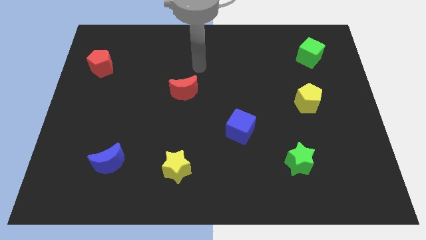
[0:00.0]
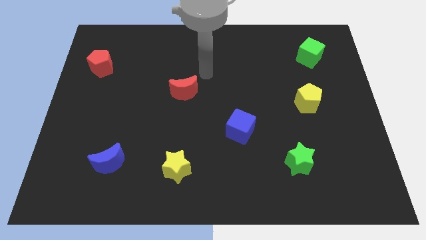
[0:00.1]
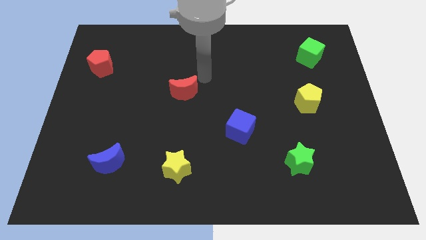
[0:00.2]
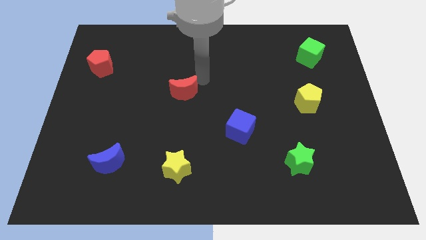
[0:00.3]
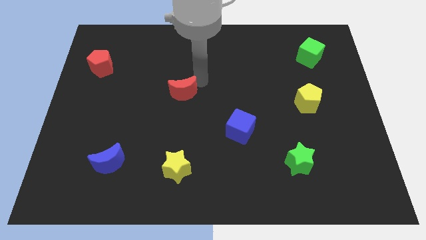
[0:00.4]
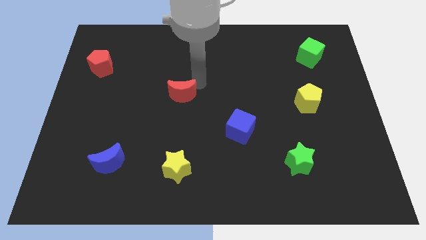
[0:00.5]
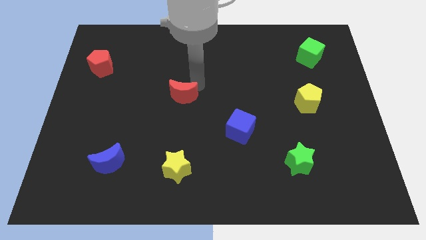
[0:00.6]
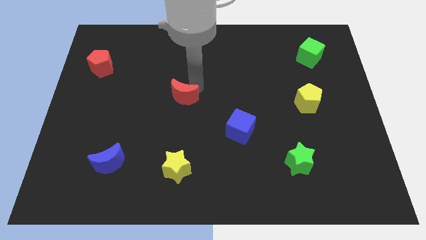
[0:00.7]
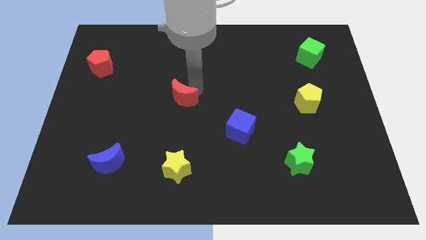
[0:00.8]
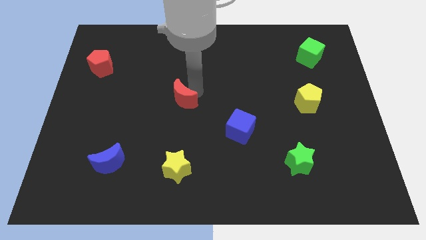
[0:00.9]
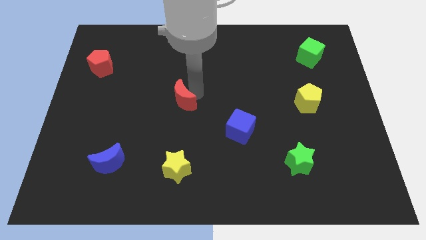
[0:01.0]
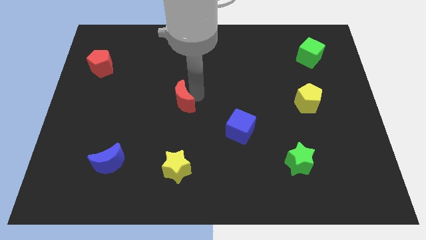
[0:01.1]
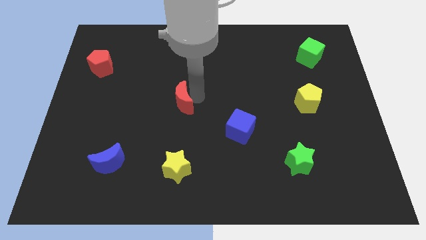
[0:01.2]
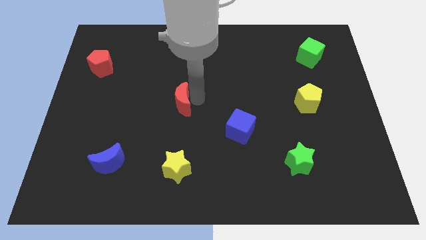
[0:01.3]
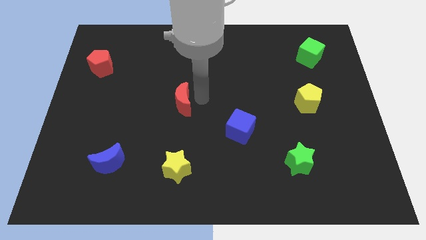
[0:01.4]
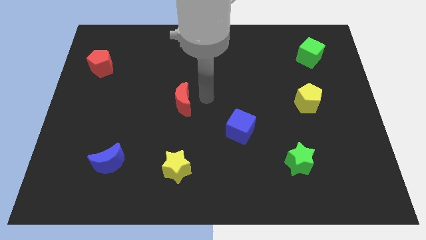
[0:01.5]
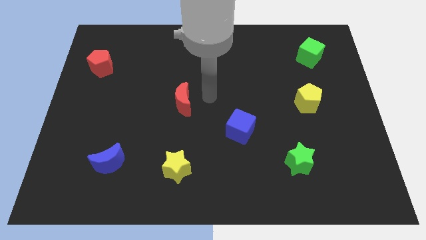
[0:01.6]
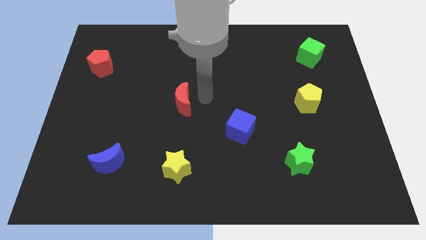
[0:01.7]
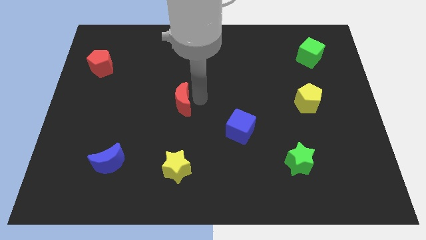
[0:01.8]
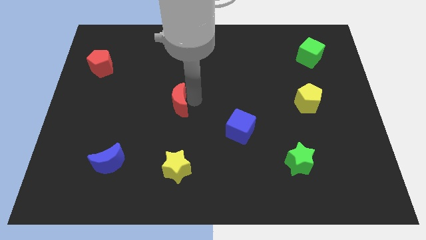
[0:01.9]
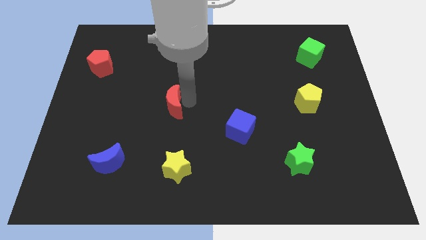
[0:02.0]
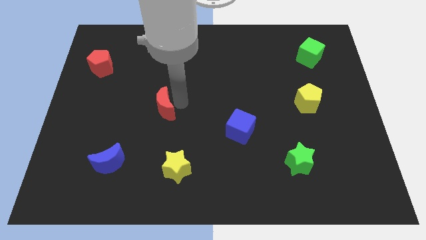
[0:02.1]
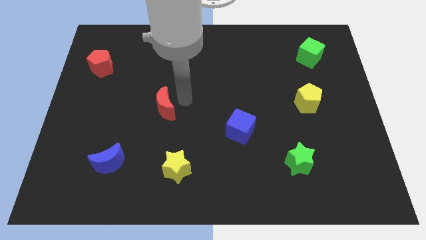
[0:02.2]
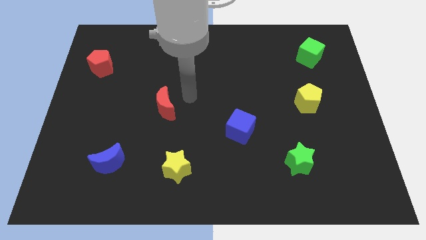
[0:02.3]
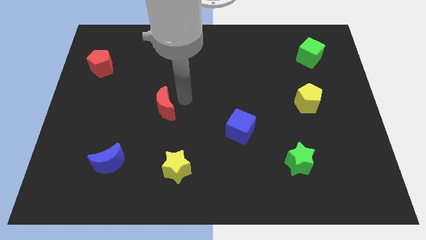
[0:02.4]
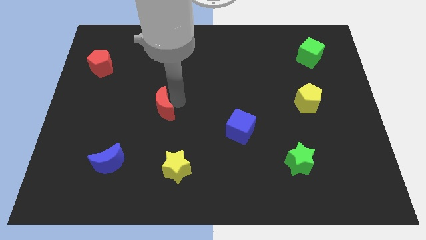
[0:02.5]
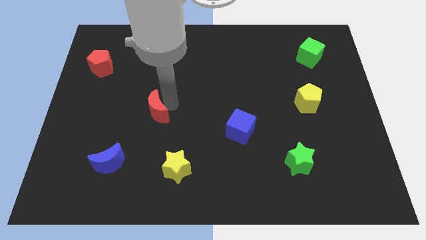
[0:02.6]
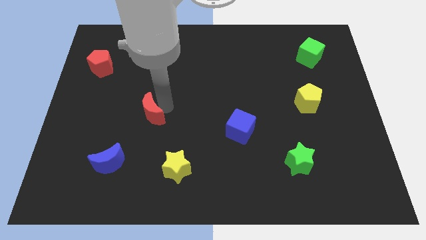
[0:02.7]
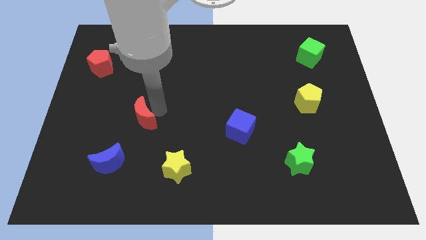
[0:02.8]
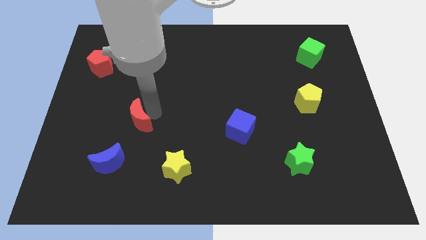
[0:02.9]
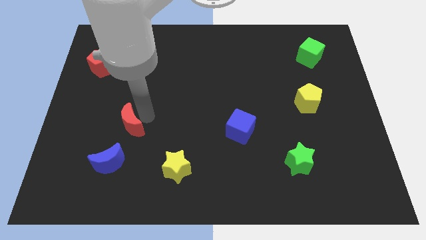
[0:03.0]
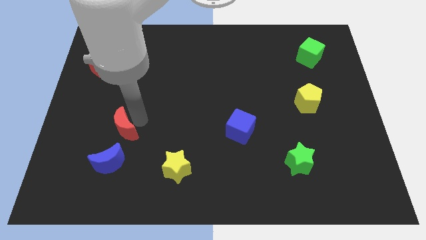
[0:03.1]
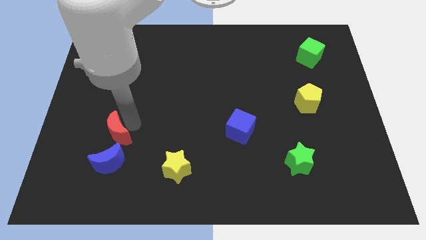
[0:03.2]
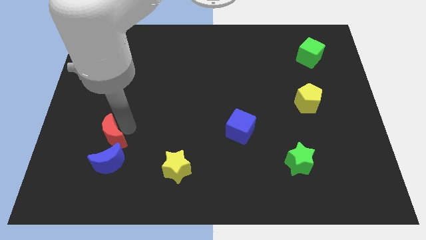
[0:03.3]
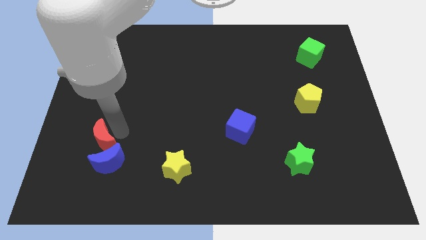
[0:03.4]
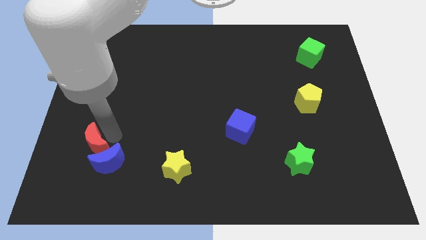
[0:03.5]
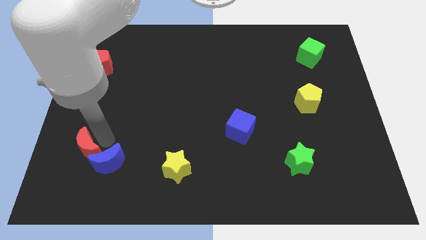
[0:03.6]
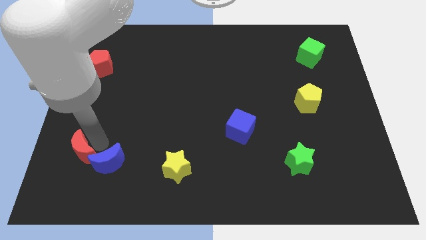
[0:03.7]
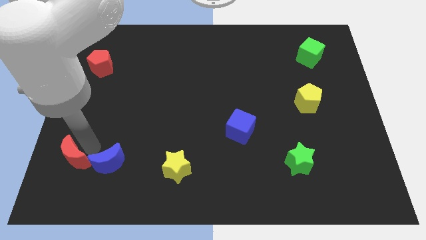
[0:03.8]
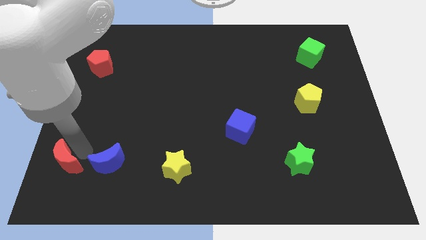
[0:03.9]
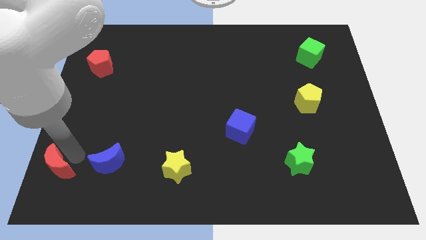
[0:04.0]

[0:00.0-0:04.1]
move the red moon to the bottom left of the board

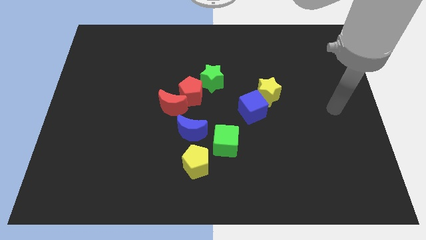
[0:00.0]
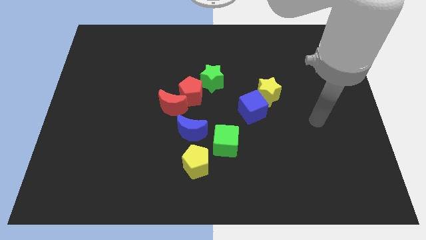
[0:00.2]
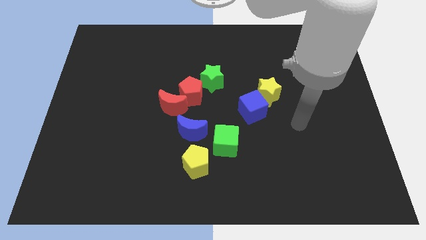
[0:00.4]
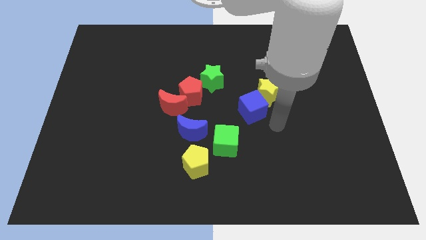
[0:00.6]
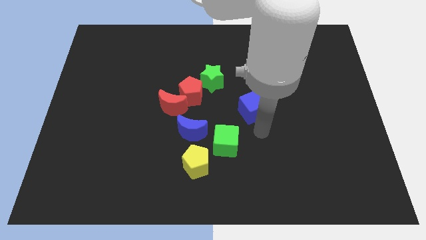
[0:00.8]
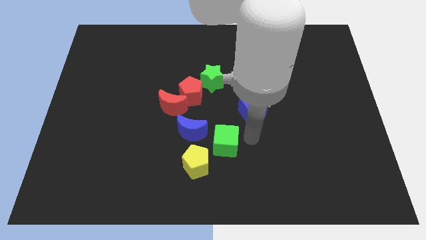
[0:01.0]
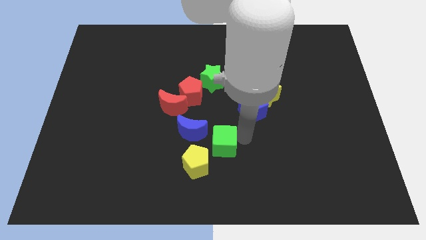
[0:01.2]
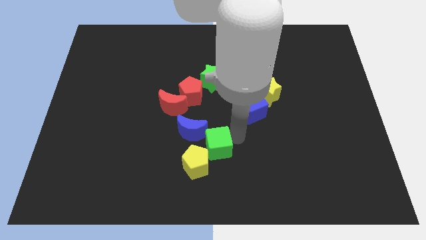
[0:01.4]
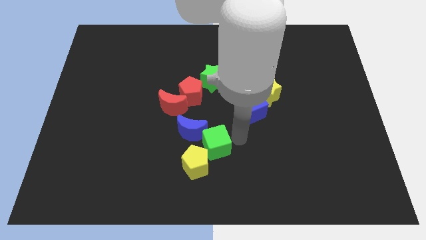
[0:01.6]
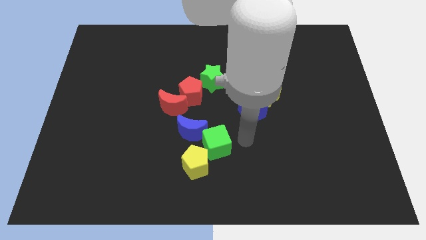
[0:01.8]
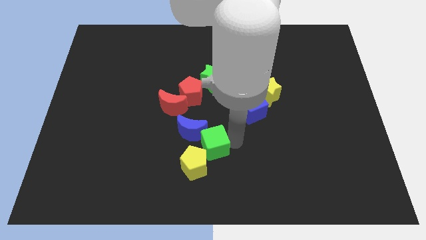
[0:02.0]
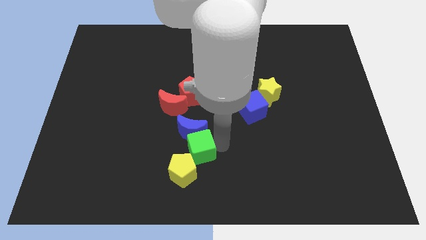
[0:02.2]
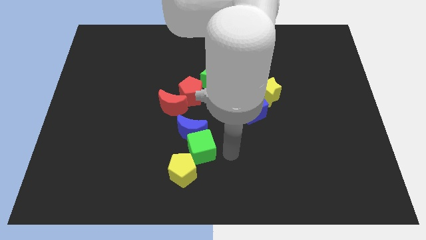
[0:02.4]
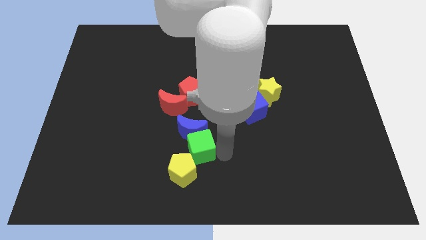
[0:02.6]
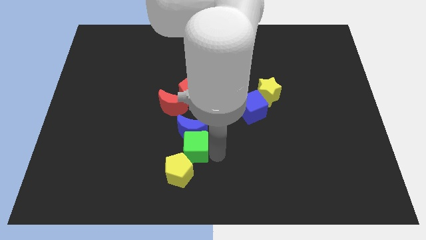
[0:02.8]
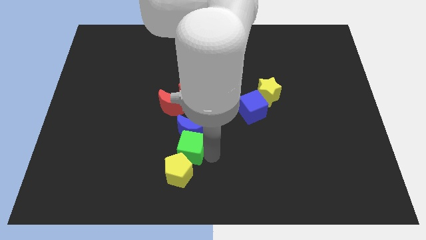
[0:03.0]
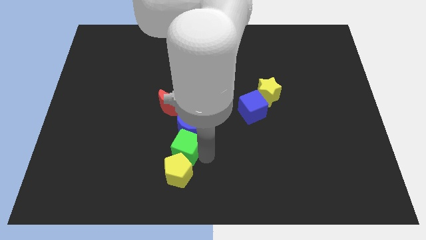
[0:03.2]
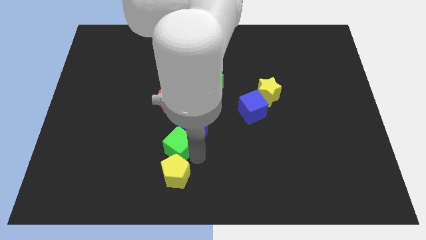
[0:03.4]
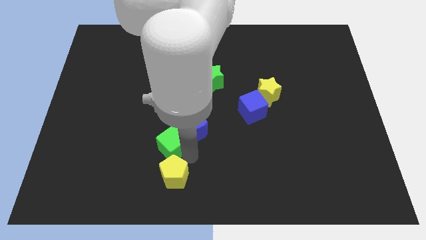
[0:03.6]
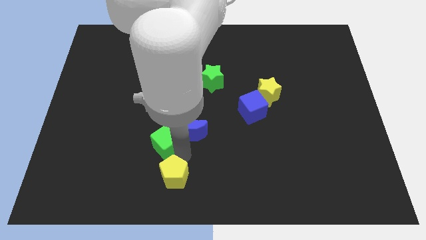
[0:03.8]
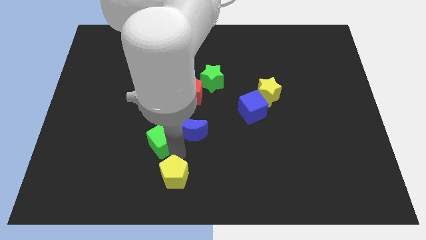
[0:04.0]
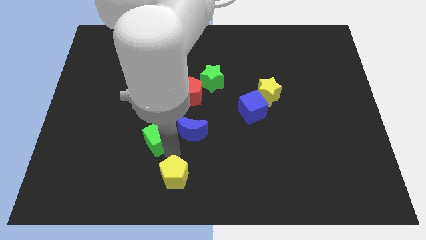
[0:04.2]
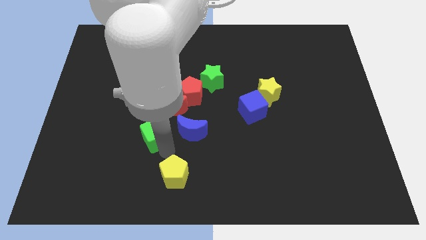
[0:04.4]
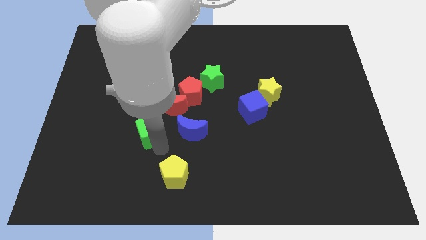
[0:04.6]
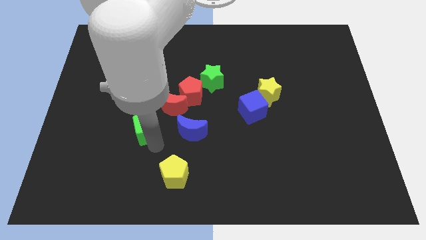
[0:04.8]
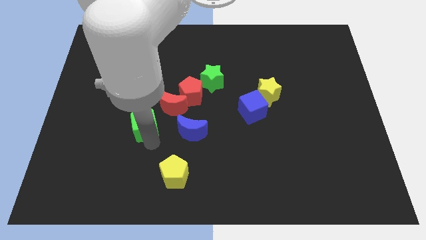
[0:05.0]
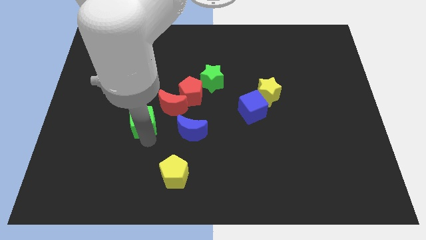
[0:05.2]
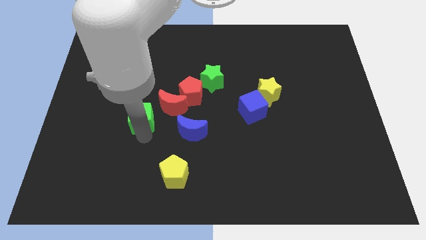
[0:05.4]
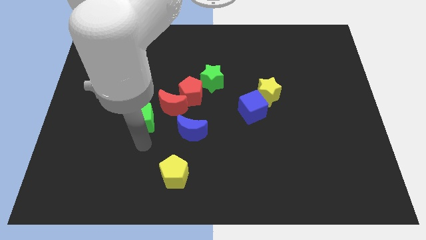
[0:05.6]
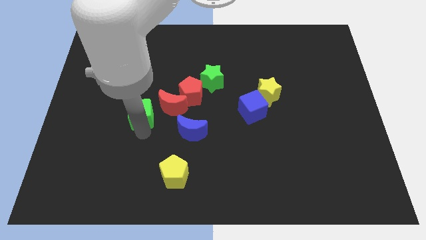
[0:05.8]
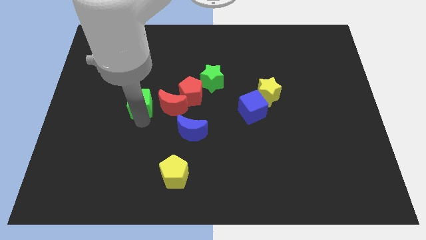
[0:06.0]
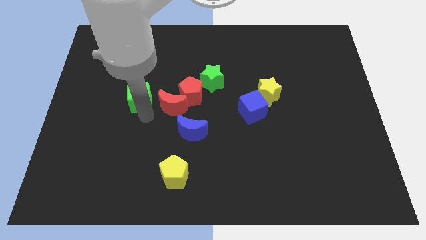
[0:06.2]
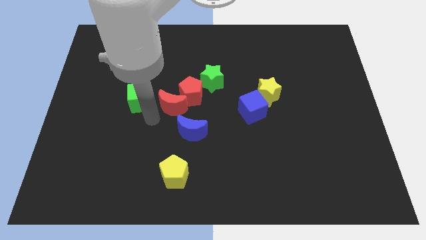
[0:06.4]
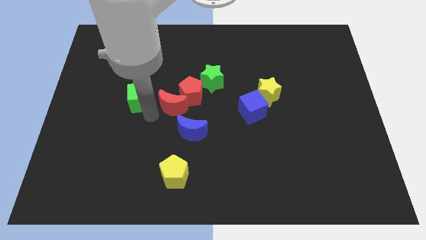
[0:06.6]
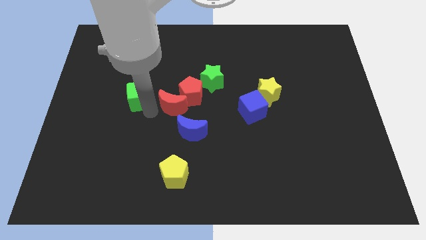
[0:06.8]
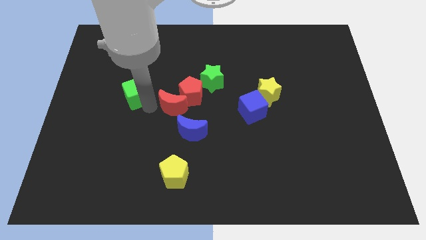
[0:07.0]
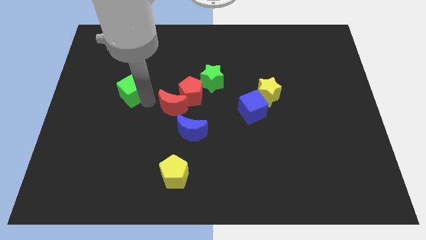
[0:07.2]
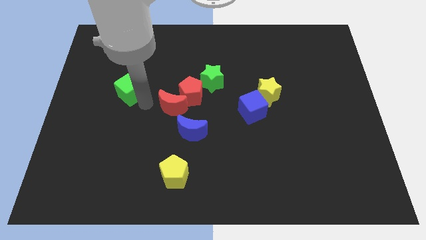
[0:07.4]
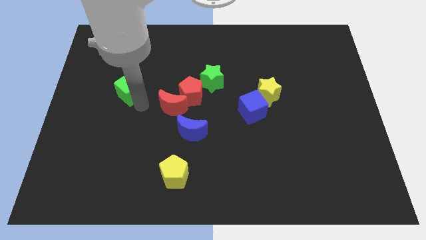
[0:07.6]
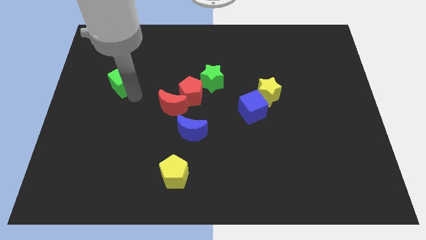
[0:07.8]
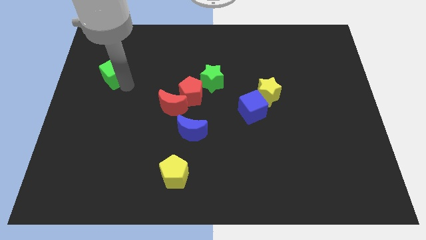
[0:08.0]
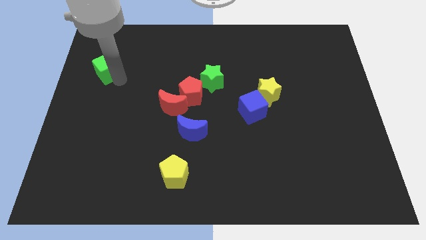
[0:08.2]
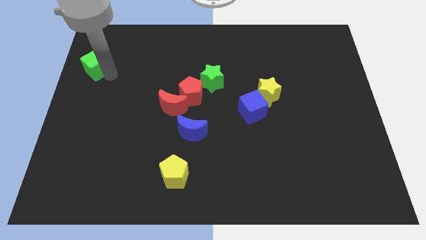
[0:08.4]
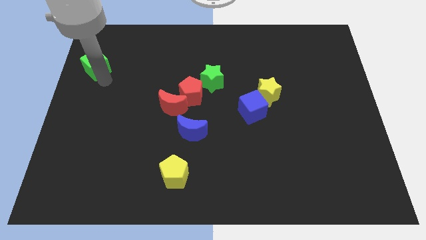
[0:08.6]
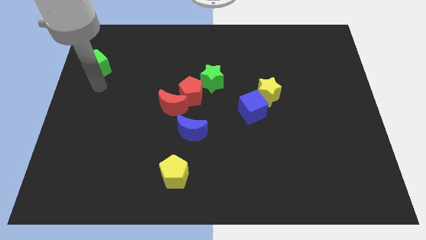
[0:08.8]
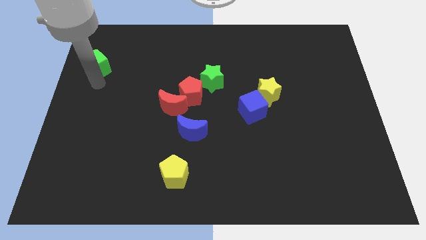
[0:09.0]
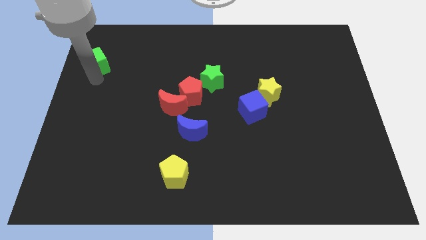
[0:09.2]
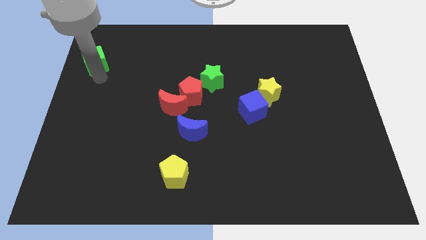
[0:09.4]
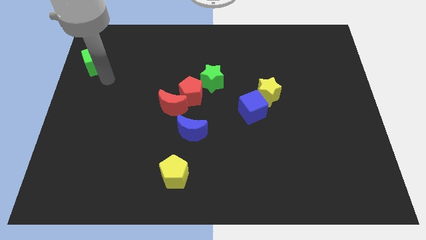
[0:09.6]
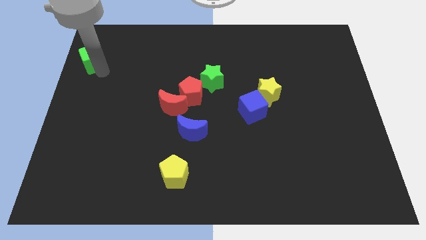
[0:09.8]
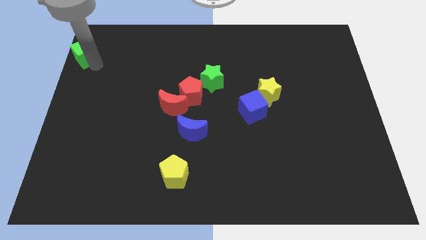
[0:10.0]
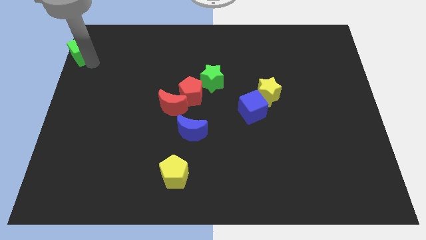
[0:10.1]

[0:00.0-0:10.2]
slide the green cube to the upper left corner
